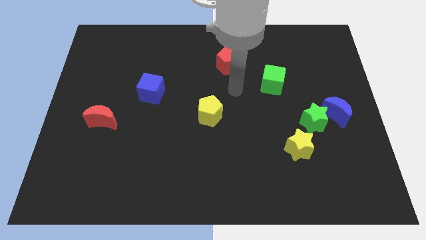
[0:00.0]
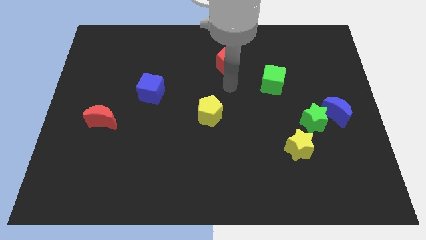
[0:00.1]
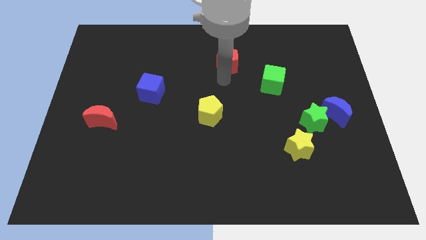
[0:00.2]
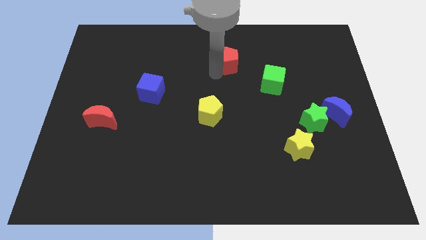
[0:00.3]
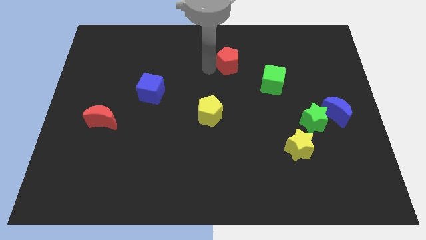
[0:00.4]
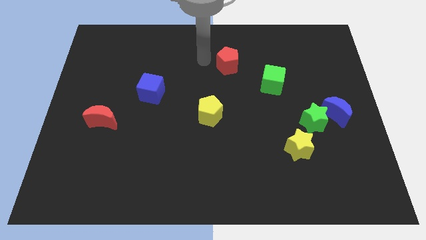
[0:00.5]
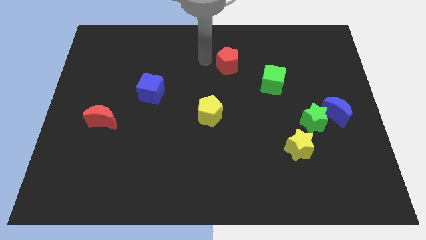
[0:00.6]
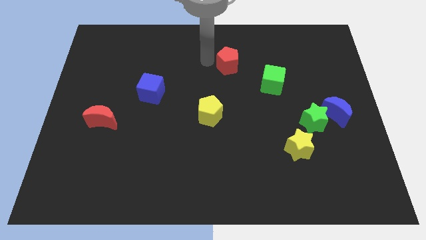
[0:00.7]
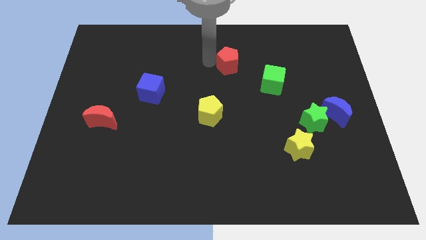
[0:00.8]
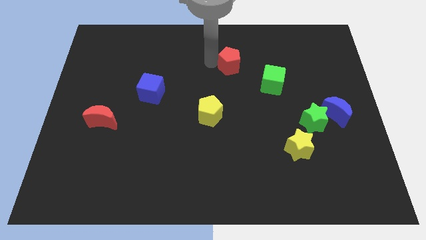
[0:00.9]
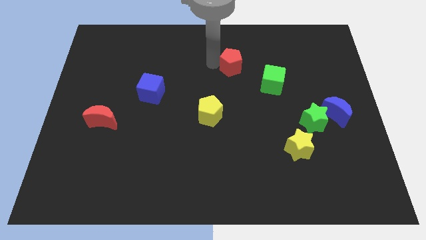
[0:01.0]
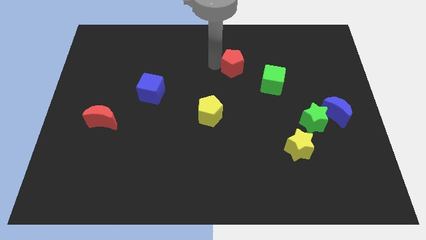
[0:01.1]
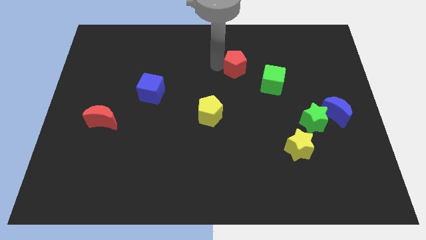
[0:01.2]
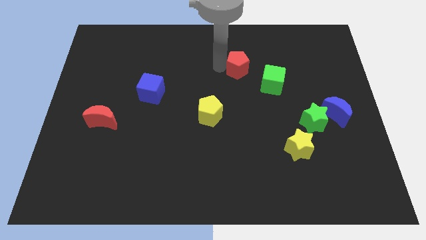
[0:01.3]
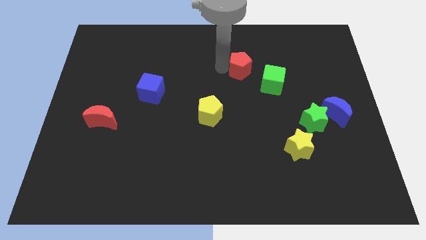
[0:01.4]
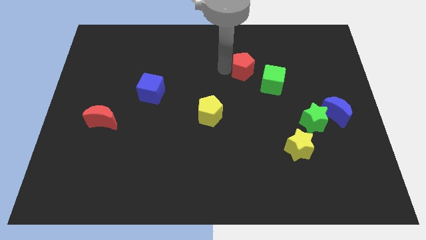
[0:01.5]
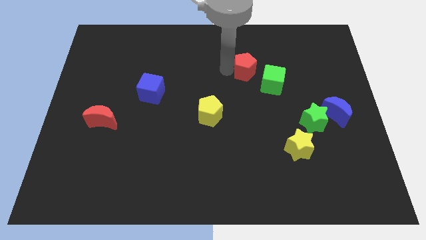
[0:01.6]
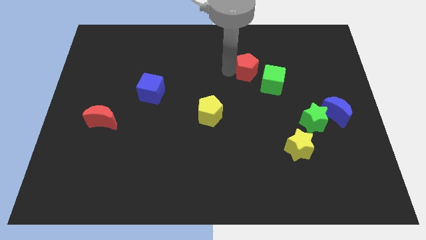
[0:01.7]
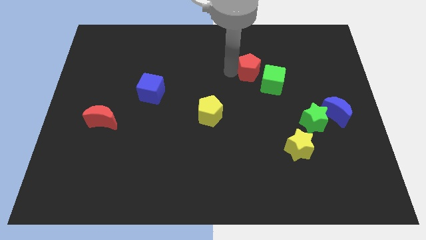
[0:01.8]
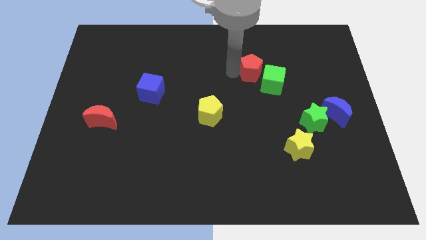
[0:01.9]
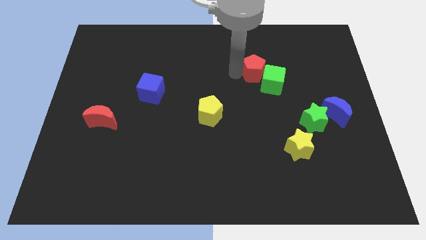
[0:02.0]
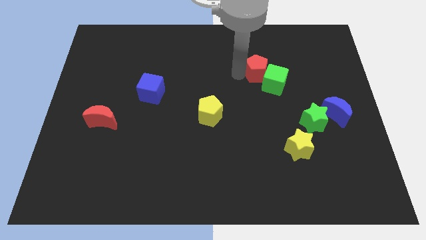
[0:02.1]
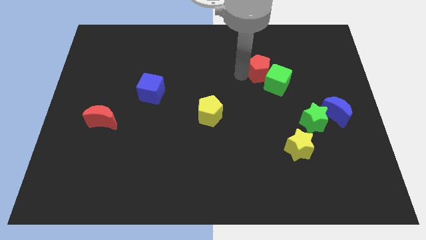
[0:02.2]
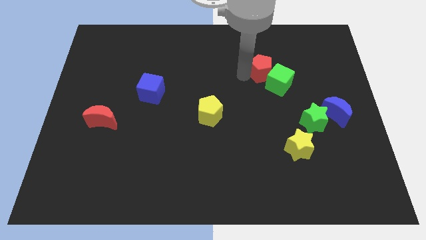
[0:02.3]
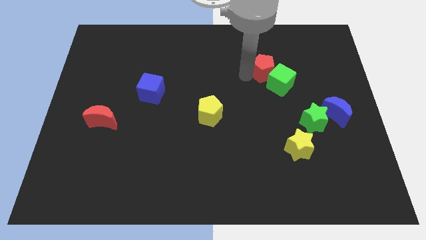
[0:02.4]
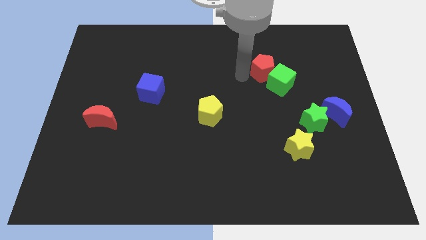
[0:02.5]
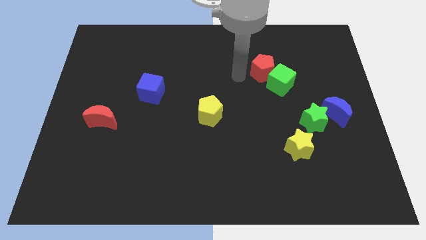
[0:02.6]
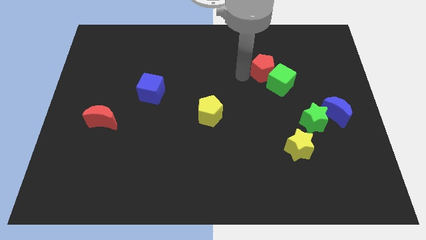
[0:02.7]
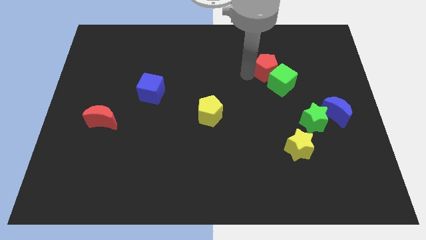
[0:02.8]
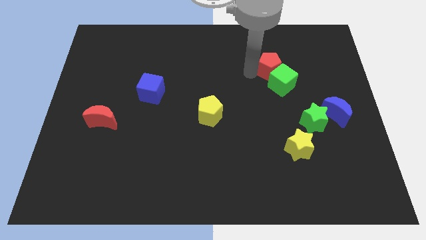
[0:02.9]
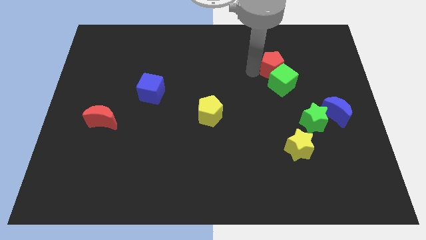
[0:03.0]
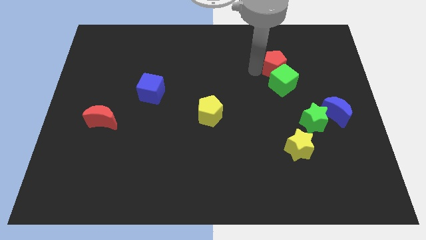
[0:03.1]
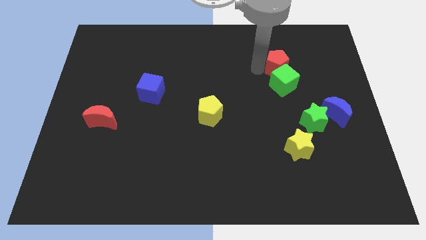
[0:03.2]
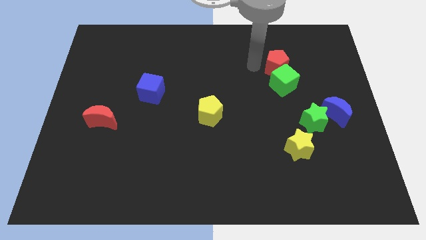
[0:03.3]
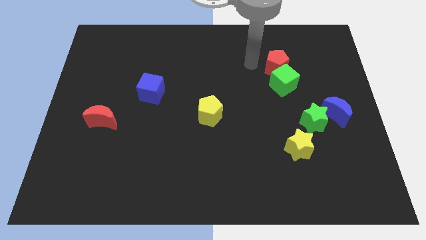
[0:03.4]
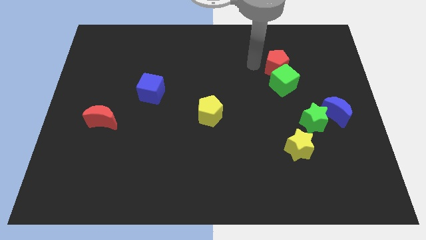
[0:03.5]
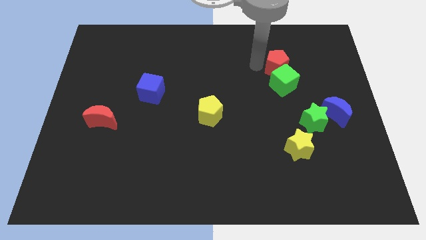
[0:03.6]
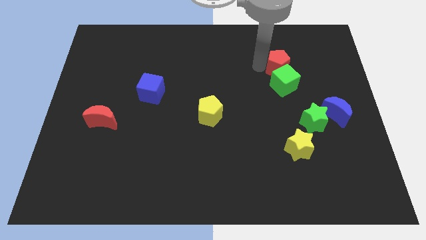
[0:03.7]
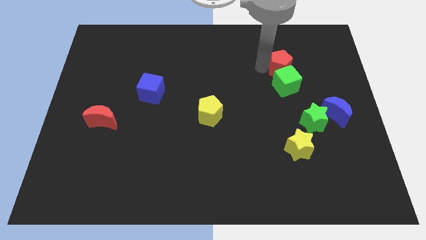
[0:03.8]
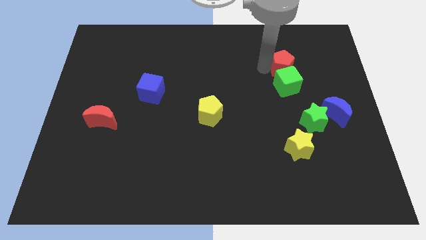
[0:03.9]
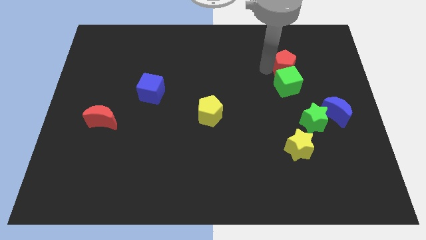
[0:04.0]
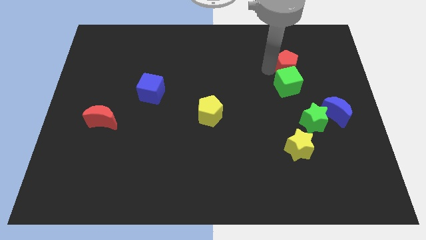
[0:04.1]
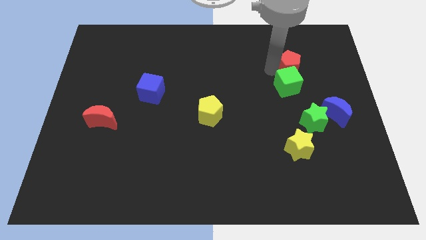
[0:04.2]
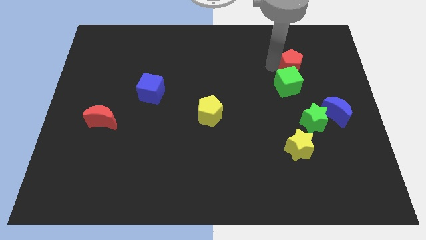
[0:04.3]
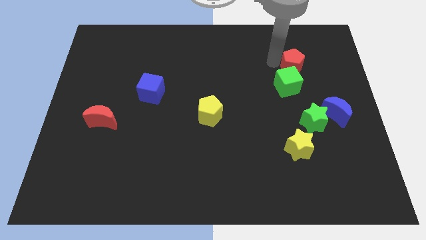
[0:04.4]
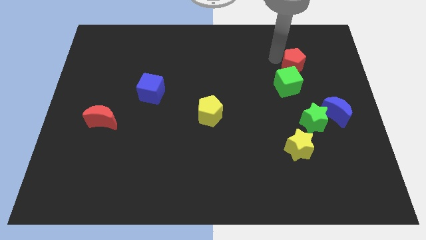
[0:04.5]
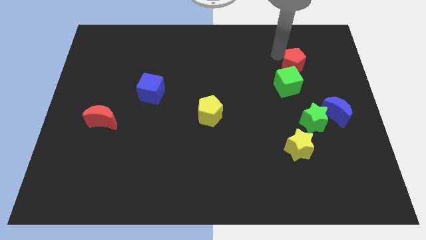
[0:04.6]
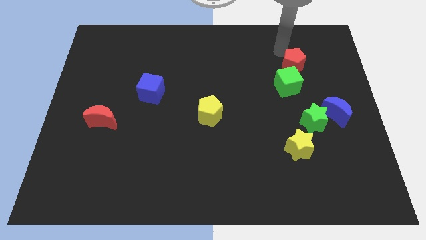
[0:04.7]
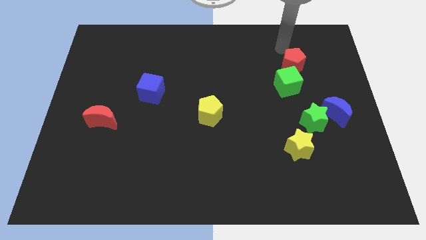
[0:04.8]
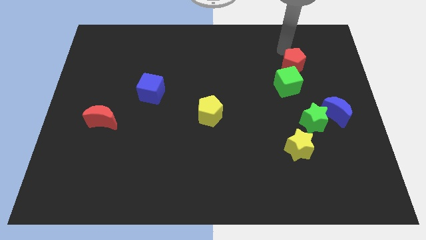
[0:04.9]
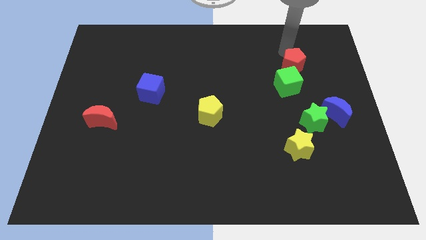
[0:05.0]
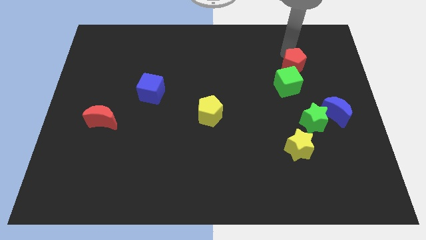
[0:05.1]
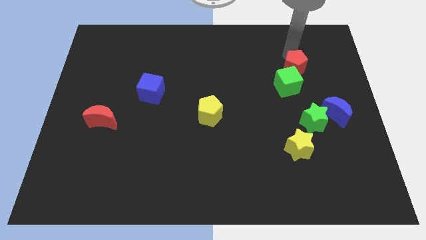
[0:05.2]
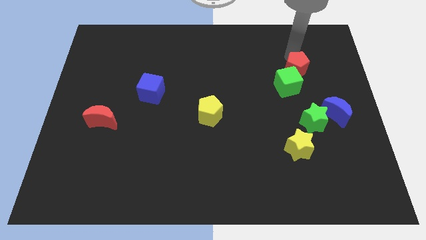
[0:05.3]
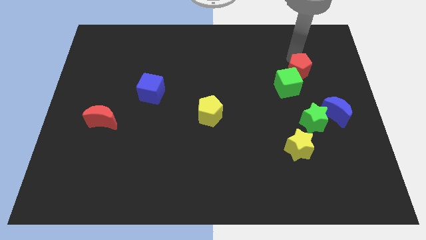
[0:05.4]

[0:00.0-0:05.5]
slide the red pentagon above the green star

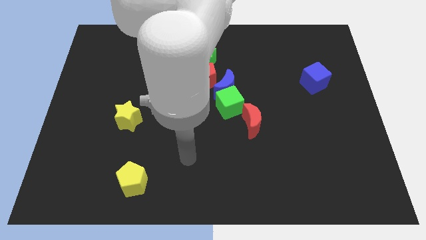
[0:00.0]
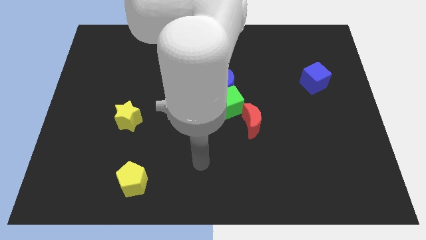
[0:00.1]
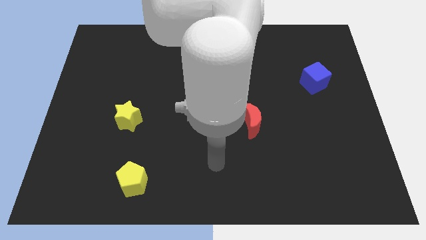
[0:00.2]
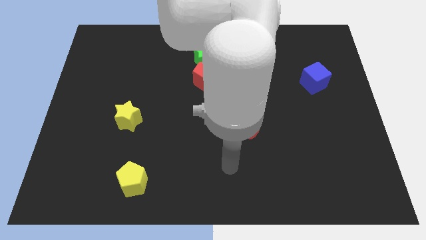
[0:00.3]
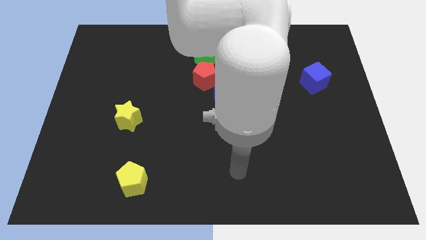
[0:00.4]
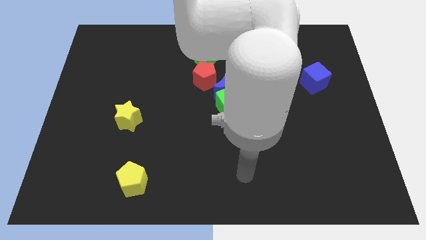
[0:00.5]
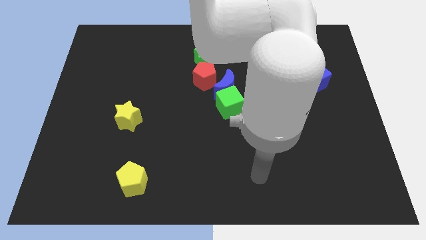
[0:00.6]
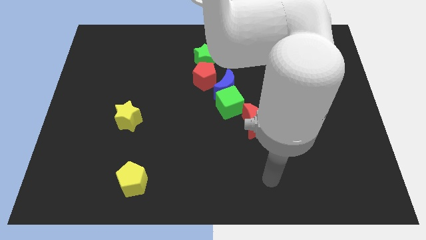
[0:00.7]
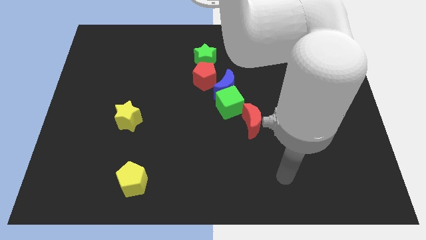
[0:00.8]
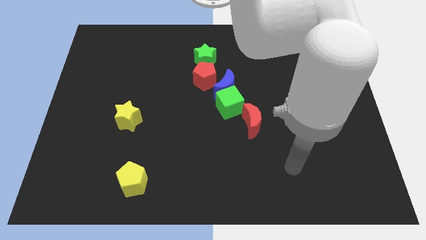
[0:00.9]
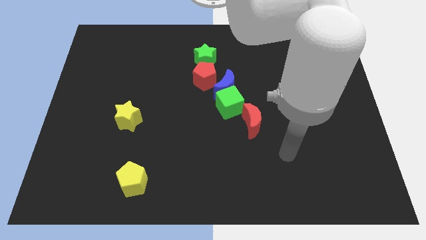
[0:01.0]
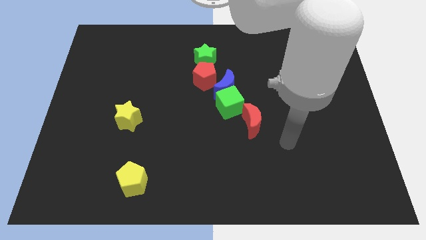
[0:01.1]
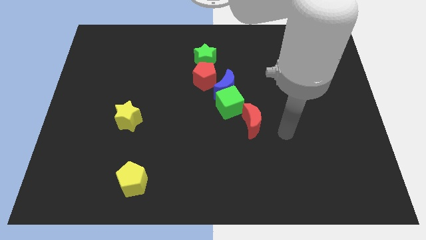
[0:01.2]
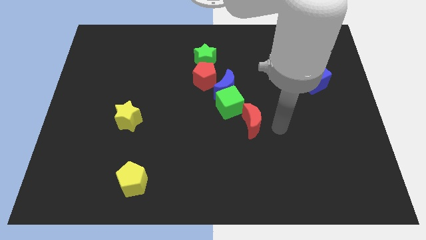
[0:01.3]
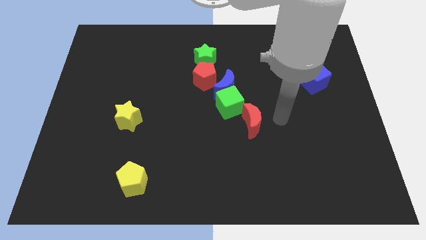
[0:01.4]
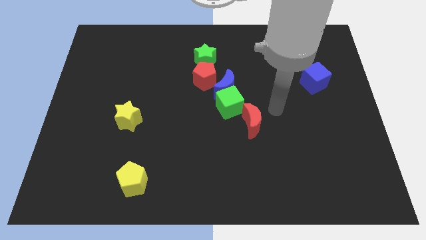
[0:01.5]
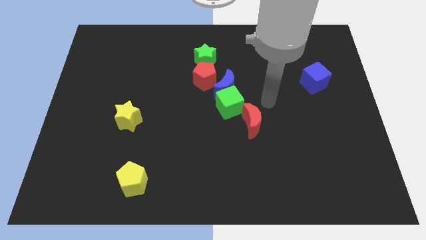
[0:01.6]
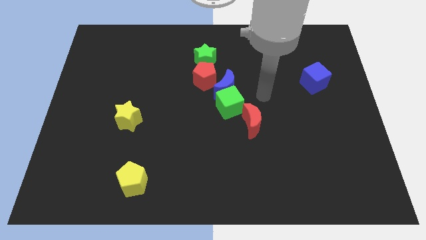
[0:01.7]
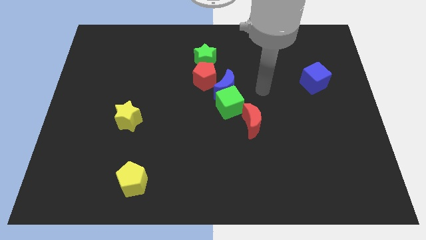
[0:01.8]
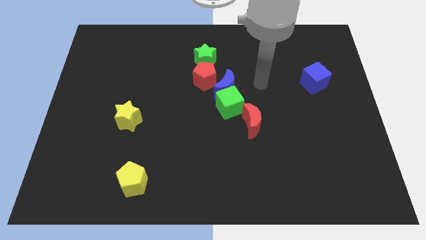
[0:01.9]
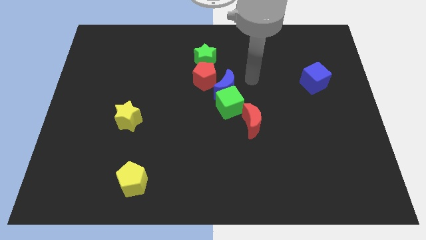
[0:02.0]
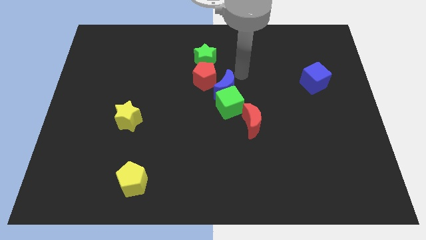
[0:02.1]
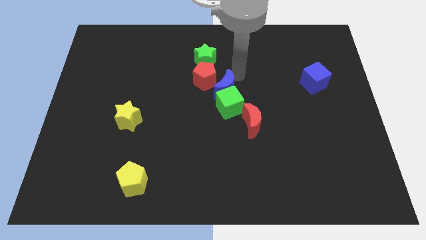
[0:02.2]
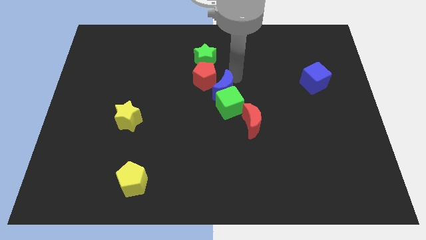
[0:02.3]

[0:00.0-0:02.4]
slide the blue moon to the bottom side of the red pentagon
